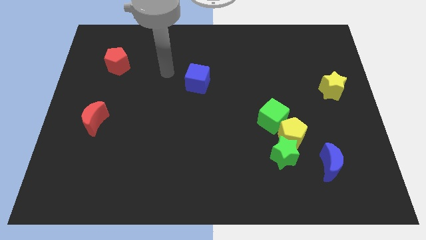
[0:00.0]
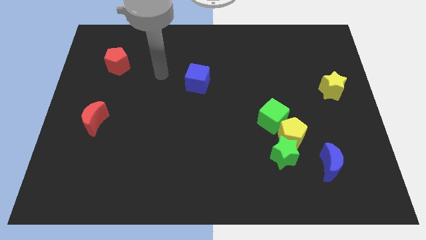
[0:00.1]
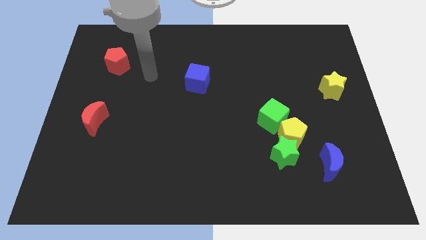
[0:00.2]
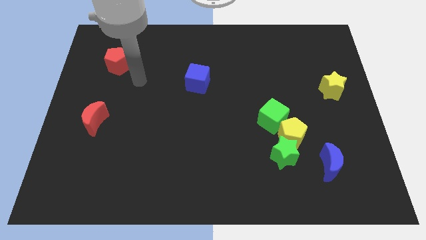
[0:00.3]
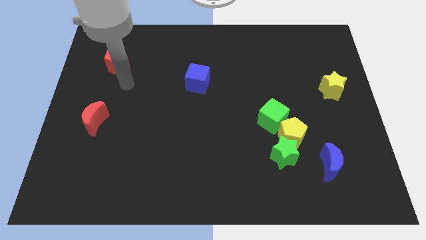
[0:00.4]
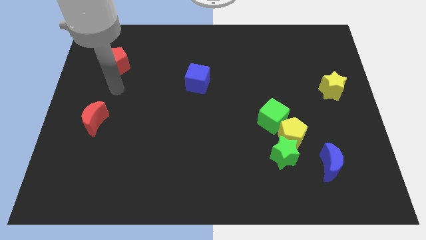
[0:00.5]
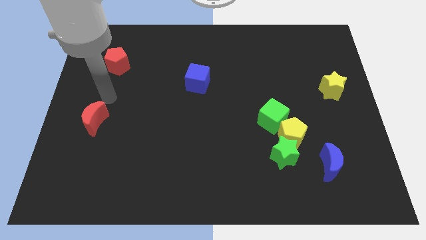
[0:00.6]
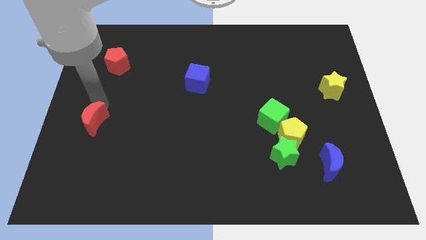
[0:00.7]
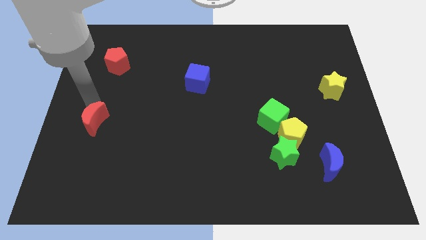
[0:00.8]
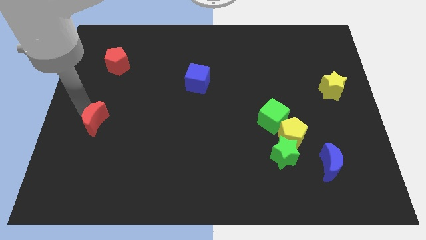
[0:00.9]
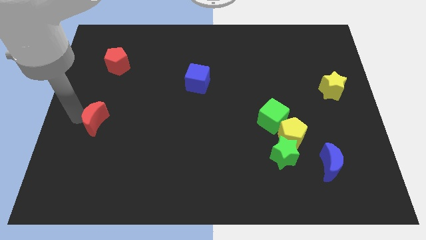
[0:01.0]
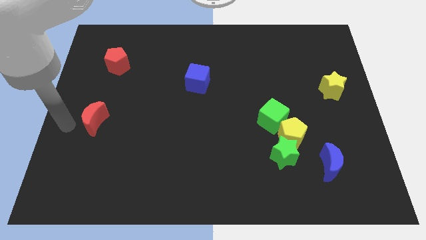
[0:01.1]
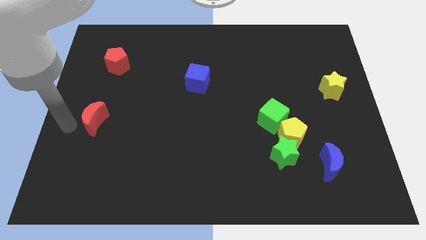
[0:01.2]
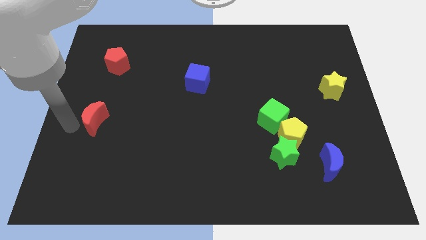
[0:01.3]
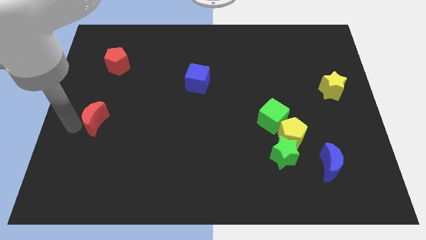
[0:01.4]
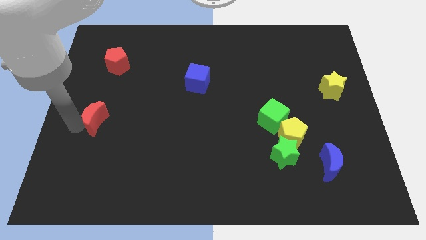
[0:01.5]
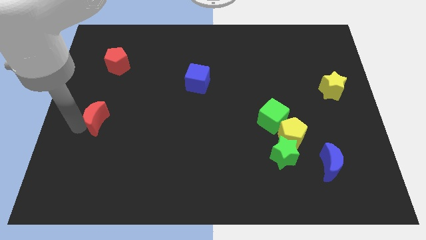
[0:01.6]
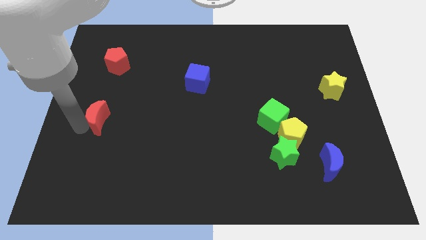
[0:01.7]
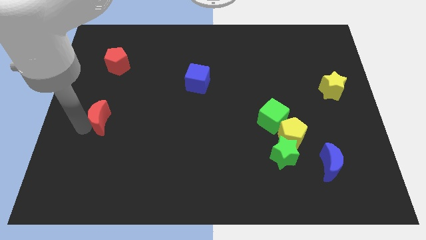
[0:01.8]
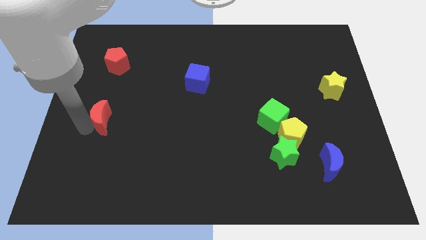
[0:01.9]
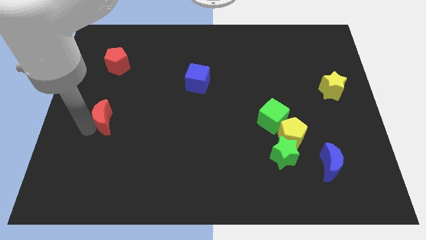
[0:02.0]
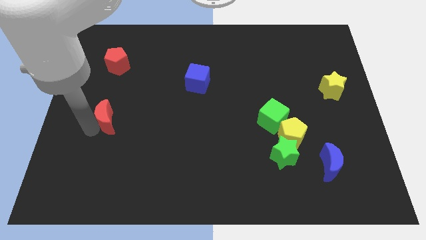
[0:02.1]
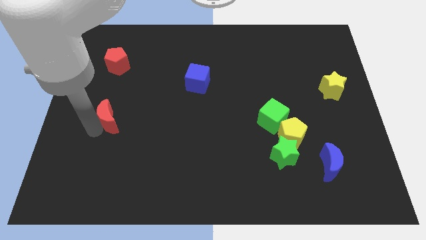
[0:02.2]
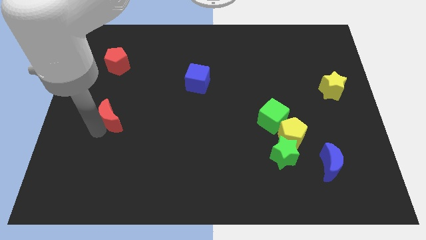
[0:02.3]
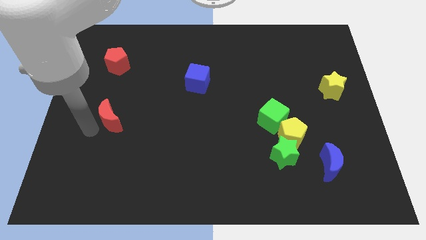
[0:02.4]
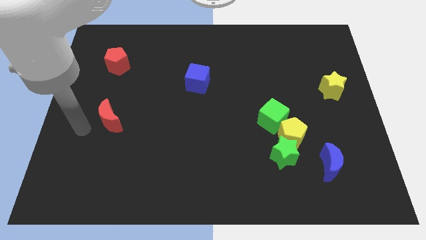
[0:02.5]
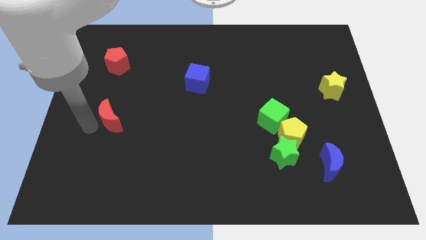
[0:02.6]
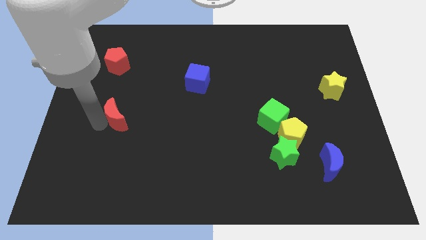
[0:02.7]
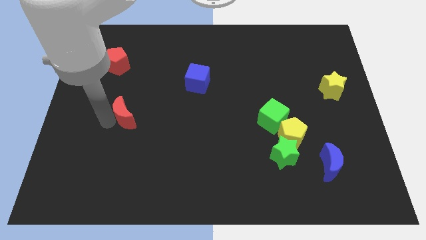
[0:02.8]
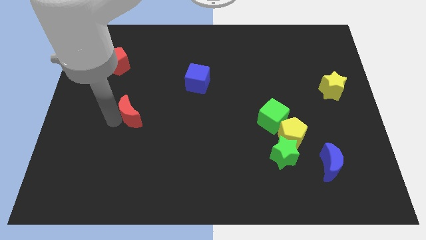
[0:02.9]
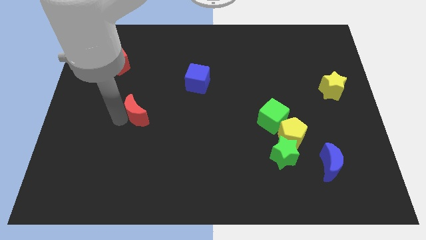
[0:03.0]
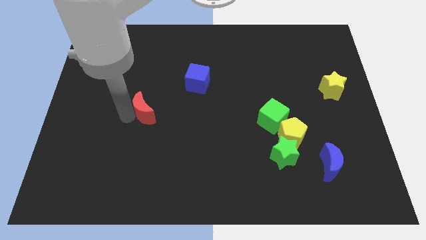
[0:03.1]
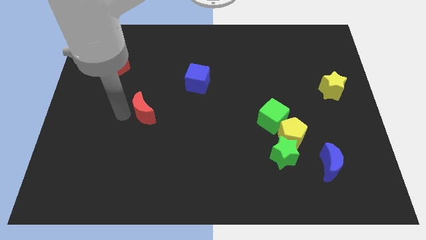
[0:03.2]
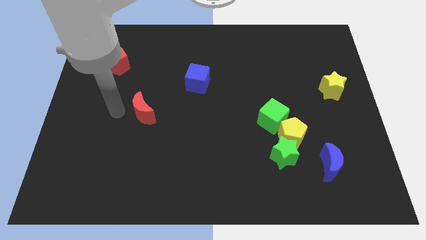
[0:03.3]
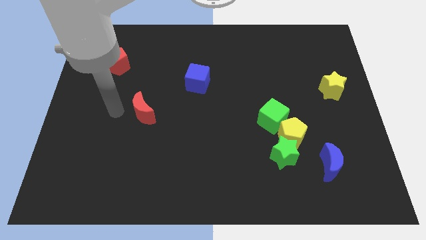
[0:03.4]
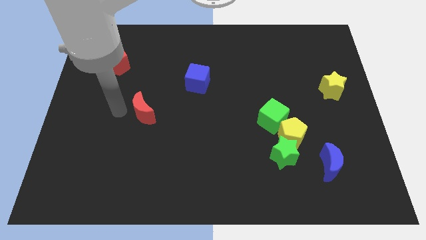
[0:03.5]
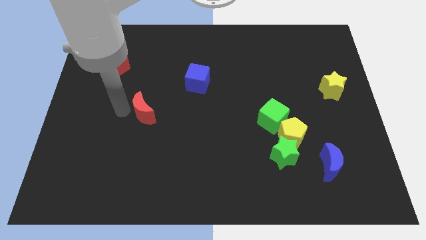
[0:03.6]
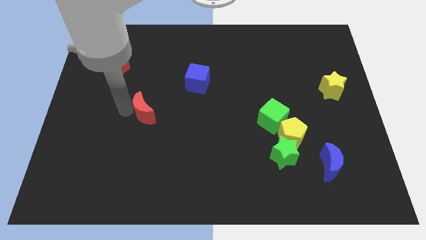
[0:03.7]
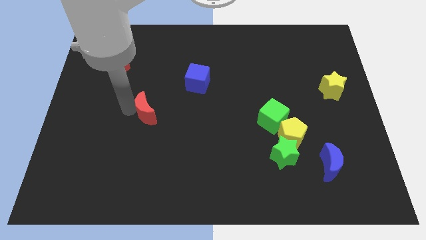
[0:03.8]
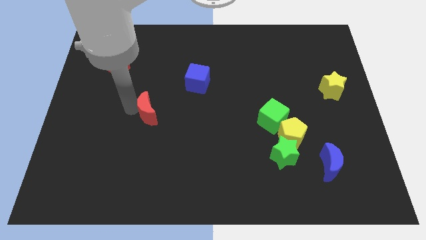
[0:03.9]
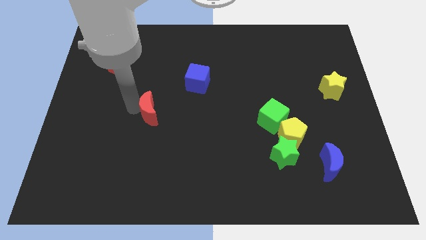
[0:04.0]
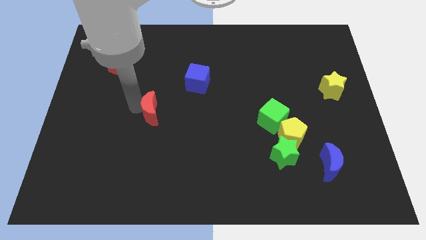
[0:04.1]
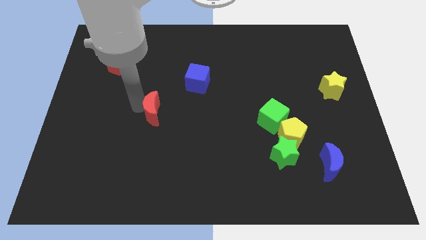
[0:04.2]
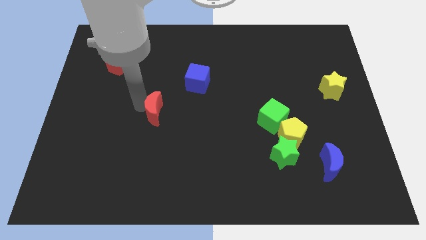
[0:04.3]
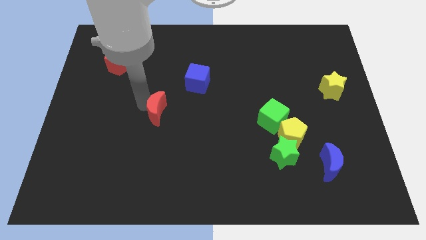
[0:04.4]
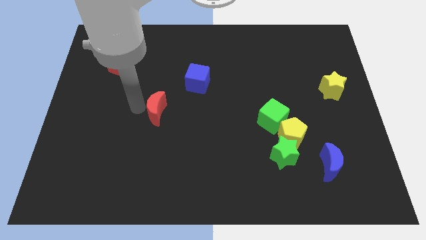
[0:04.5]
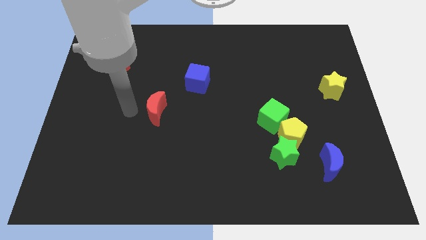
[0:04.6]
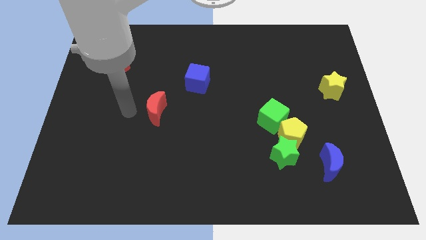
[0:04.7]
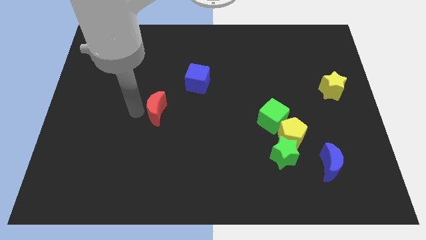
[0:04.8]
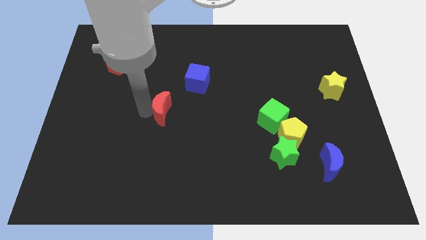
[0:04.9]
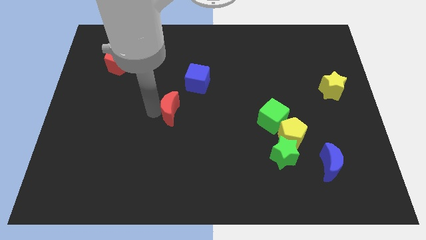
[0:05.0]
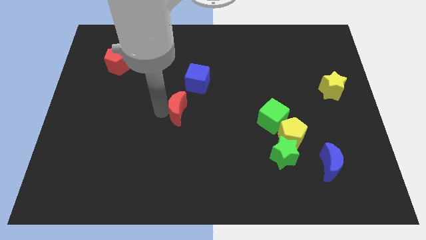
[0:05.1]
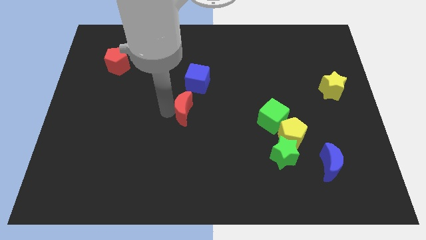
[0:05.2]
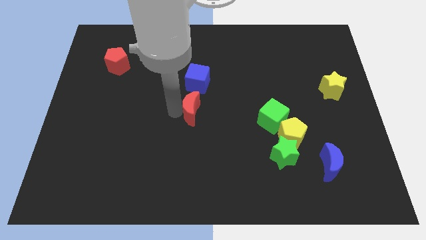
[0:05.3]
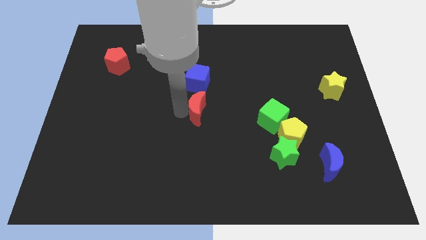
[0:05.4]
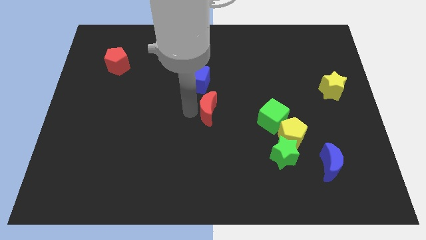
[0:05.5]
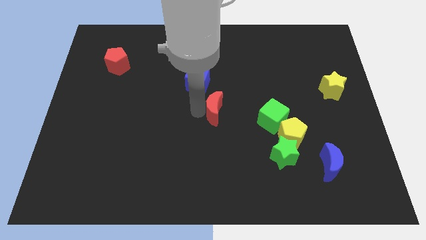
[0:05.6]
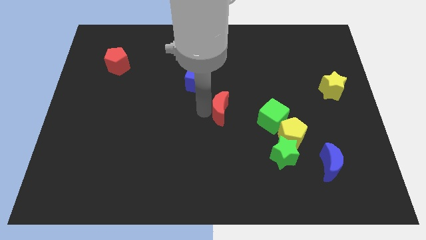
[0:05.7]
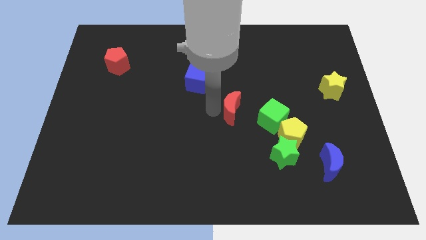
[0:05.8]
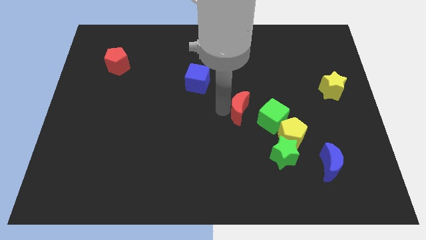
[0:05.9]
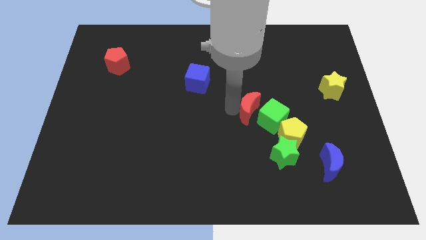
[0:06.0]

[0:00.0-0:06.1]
move the red moon to the green cube
